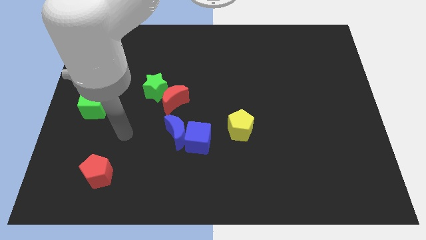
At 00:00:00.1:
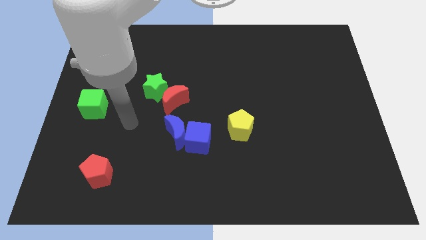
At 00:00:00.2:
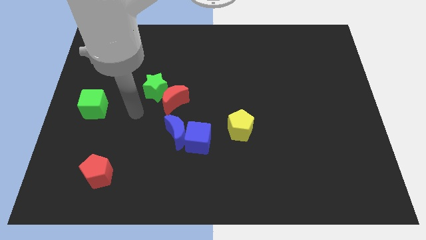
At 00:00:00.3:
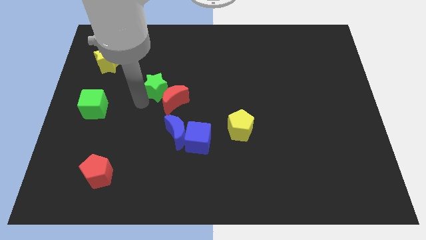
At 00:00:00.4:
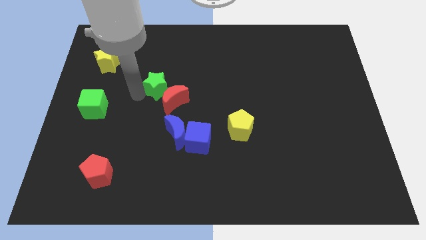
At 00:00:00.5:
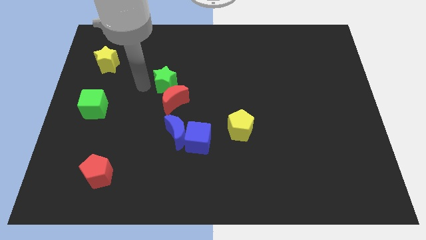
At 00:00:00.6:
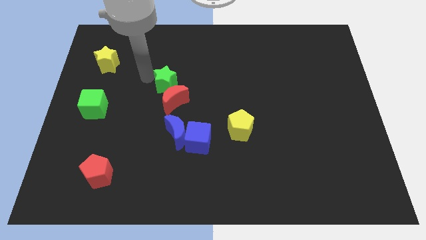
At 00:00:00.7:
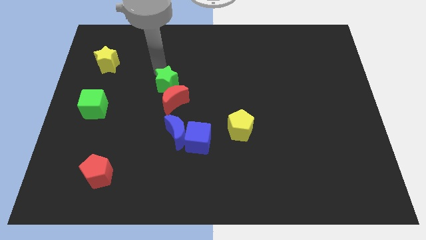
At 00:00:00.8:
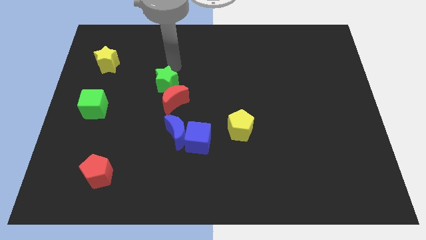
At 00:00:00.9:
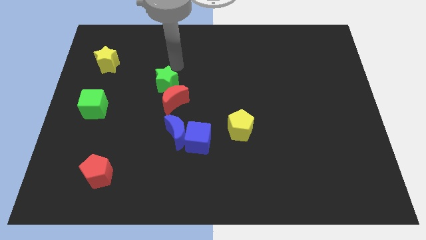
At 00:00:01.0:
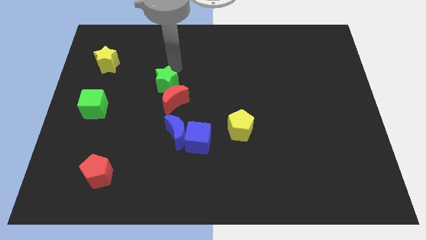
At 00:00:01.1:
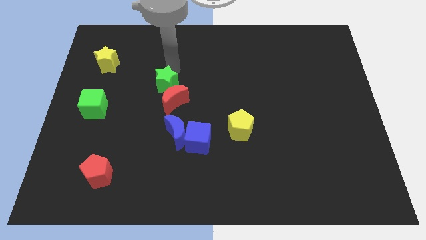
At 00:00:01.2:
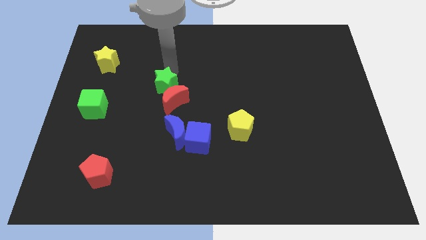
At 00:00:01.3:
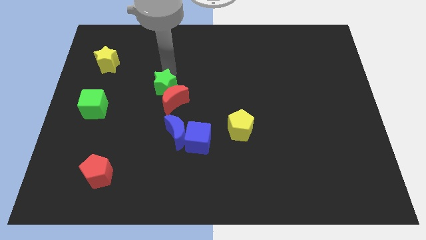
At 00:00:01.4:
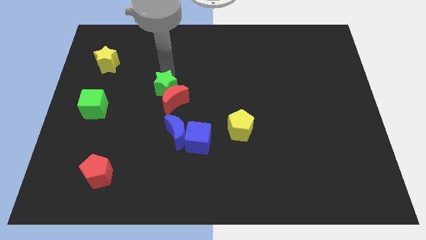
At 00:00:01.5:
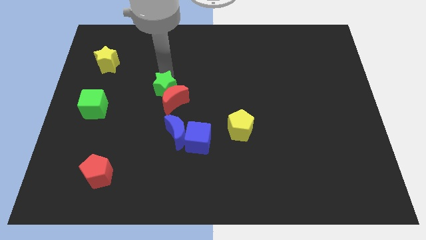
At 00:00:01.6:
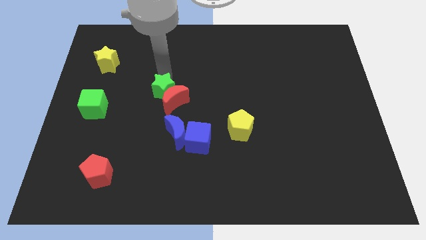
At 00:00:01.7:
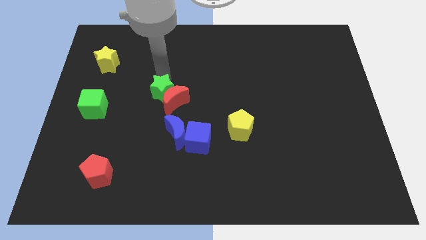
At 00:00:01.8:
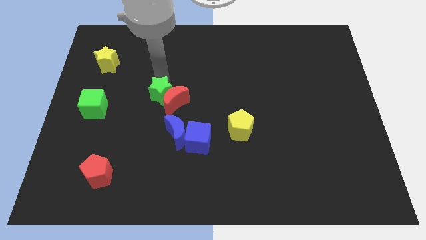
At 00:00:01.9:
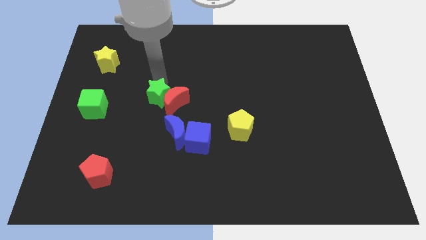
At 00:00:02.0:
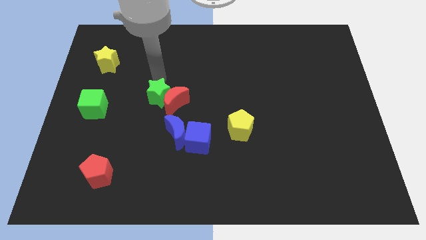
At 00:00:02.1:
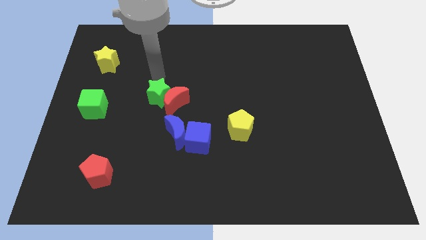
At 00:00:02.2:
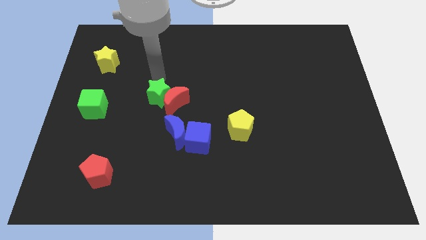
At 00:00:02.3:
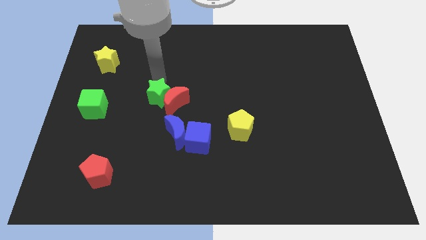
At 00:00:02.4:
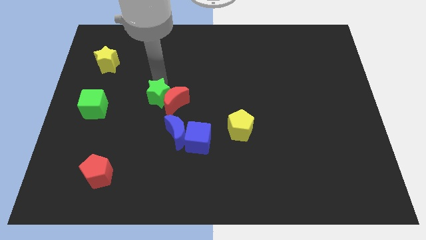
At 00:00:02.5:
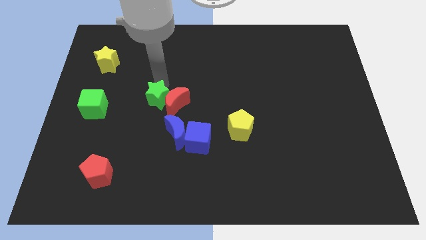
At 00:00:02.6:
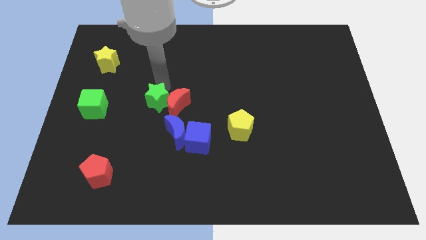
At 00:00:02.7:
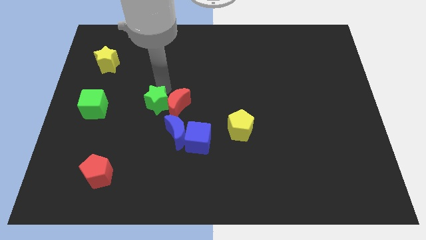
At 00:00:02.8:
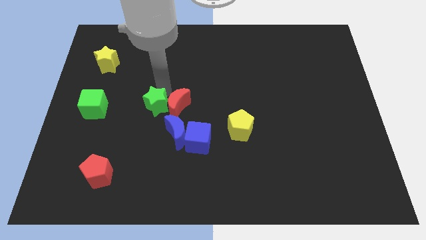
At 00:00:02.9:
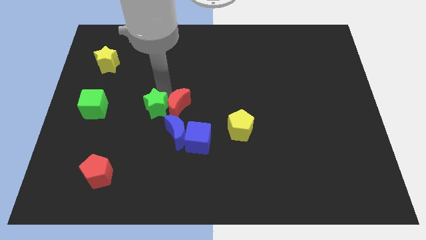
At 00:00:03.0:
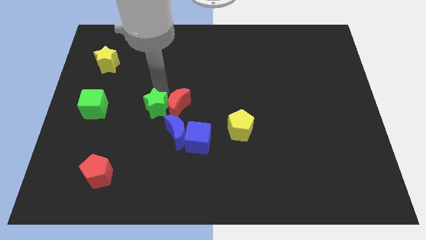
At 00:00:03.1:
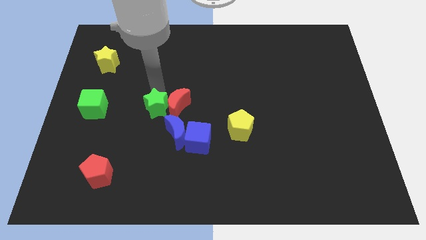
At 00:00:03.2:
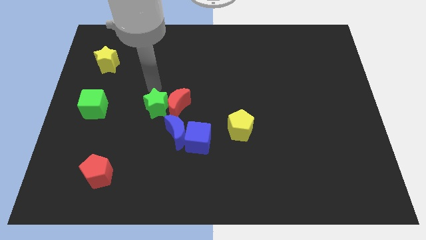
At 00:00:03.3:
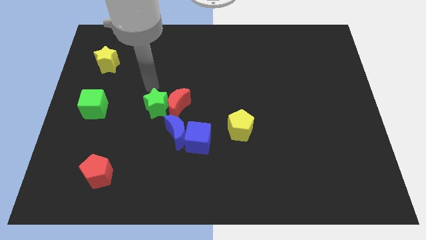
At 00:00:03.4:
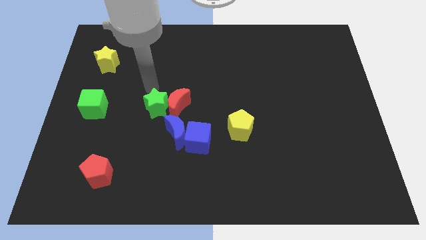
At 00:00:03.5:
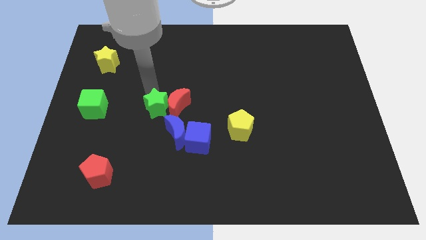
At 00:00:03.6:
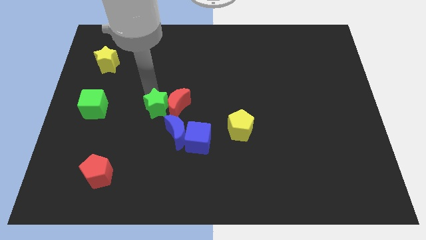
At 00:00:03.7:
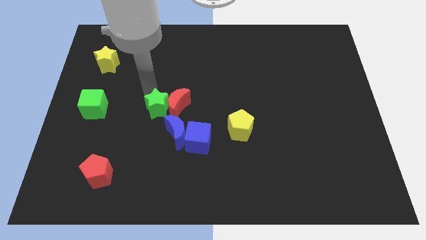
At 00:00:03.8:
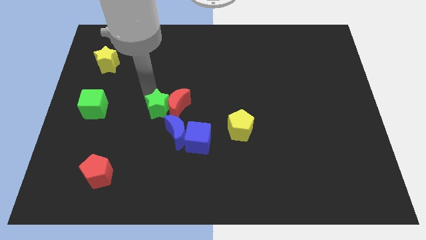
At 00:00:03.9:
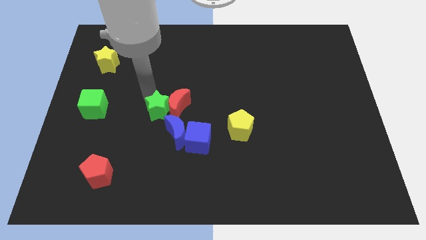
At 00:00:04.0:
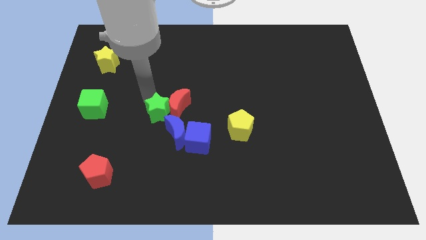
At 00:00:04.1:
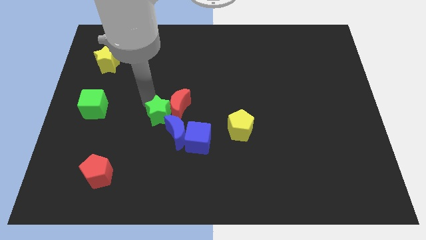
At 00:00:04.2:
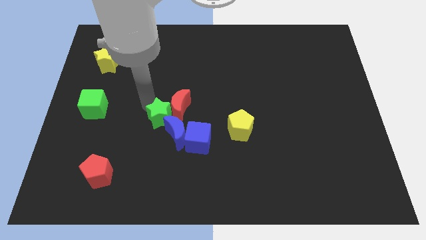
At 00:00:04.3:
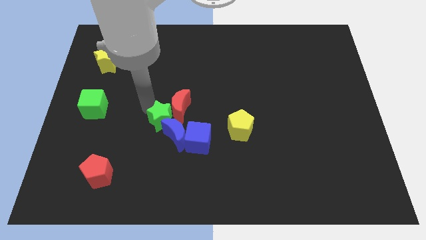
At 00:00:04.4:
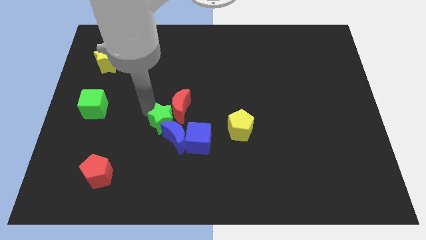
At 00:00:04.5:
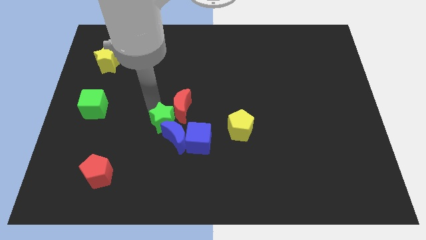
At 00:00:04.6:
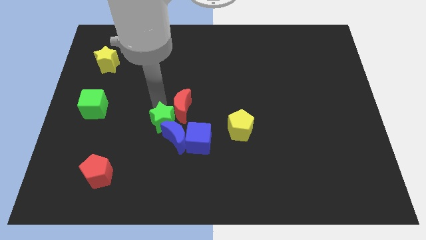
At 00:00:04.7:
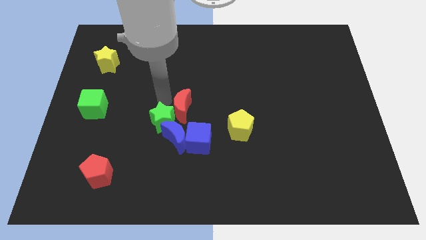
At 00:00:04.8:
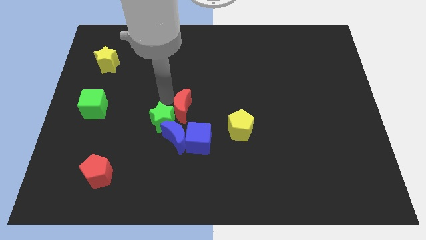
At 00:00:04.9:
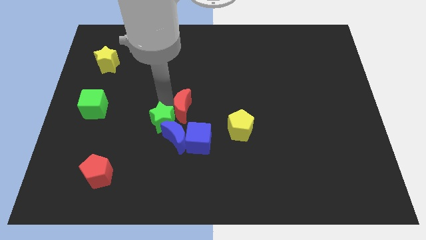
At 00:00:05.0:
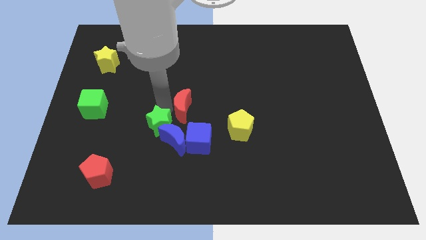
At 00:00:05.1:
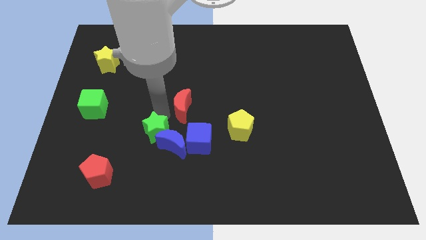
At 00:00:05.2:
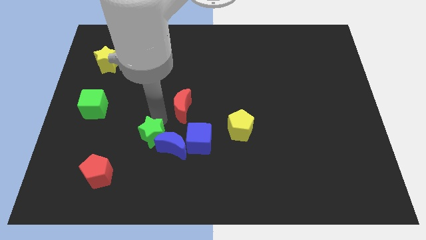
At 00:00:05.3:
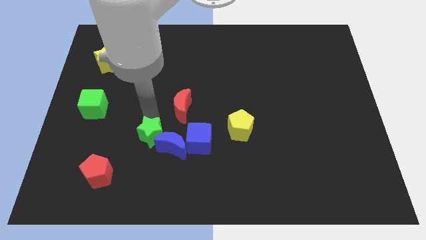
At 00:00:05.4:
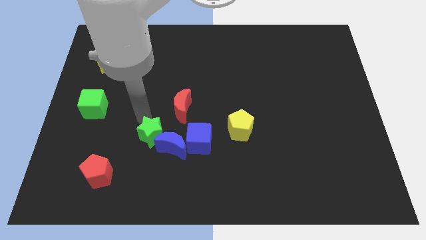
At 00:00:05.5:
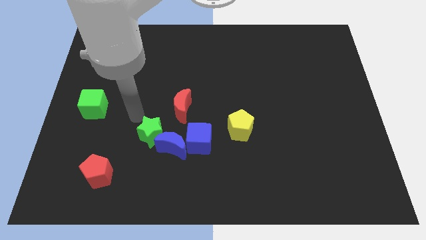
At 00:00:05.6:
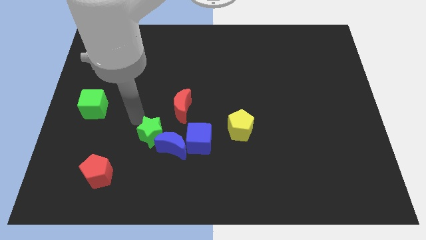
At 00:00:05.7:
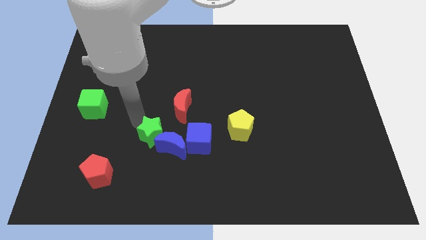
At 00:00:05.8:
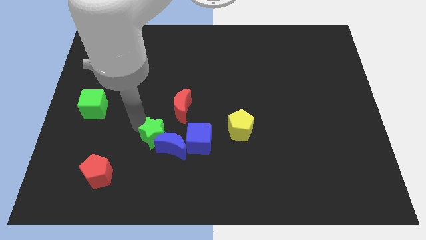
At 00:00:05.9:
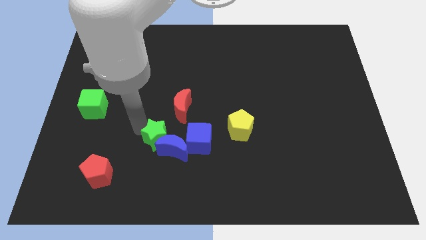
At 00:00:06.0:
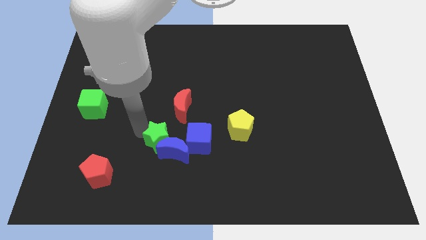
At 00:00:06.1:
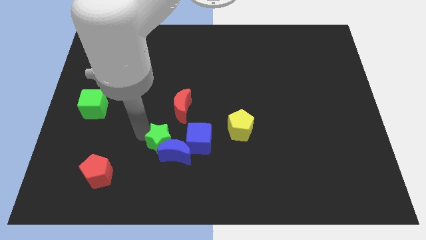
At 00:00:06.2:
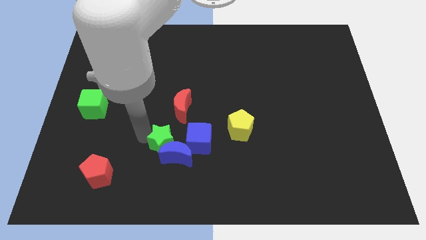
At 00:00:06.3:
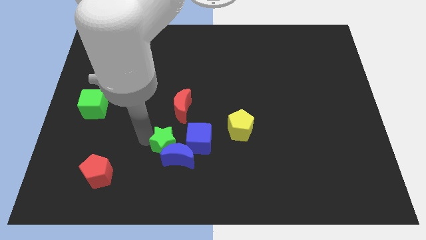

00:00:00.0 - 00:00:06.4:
slide the green star to the bottom left of the blue cube

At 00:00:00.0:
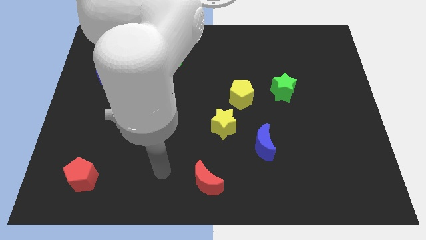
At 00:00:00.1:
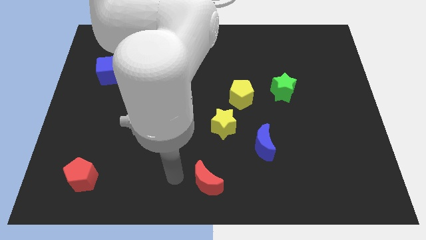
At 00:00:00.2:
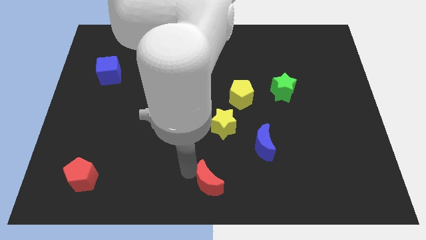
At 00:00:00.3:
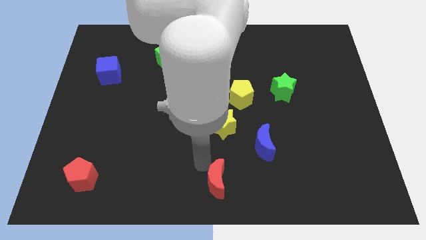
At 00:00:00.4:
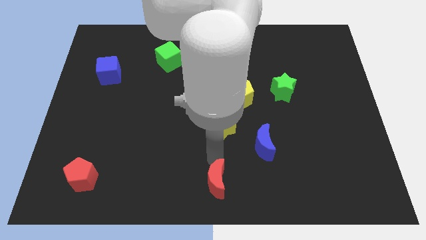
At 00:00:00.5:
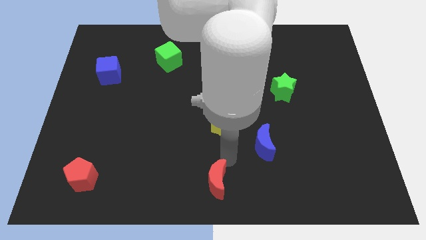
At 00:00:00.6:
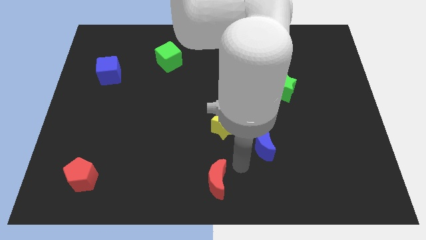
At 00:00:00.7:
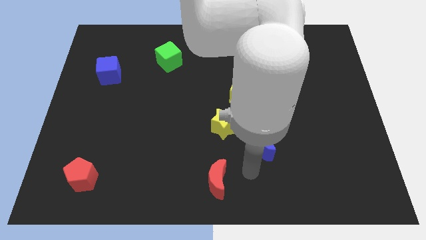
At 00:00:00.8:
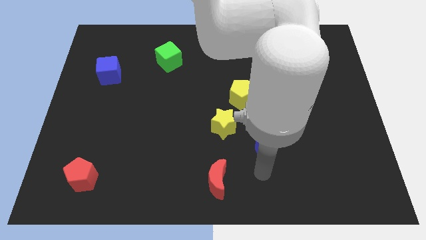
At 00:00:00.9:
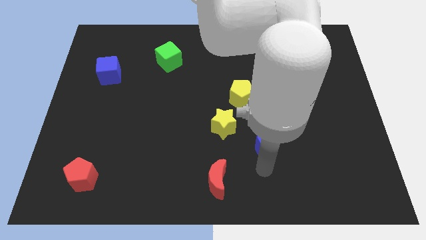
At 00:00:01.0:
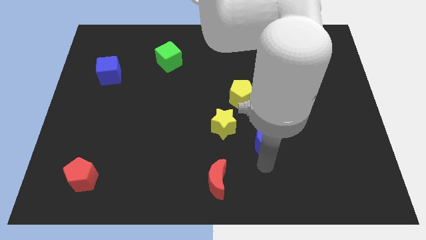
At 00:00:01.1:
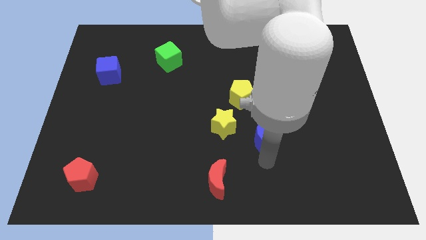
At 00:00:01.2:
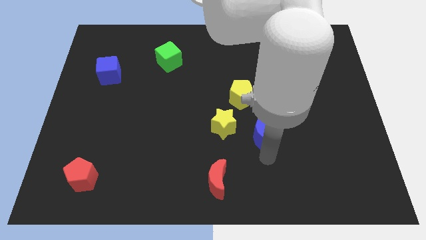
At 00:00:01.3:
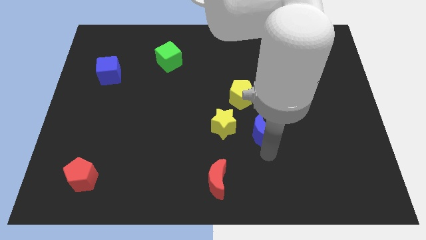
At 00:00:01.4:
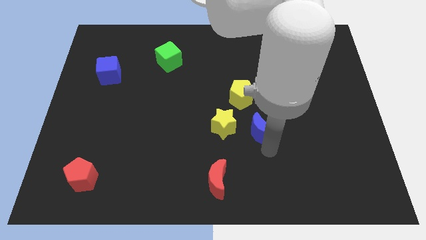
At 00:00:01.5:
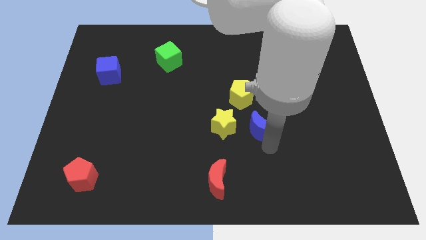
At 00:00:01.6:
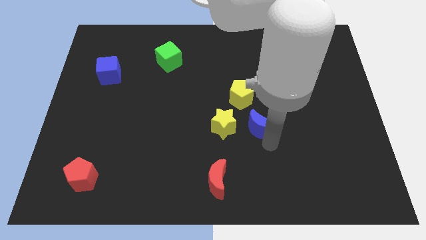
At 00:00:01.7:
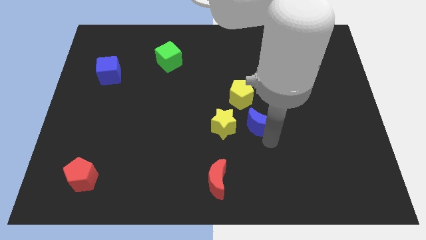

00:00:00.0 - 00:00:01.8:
move the blue moon to the bottom left side of the green star
